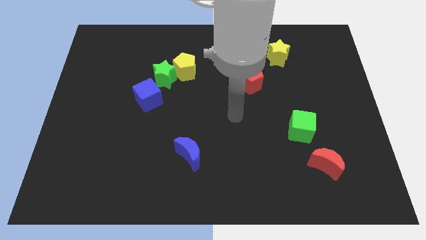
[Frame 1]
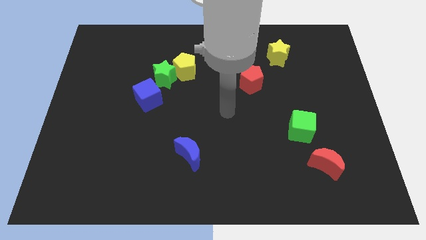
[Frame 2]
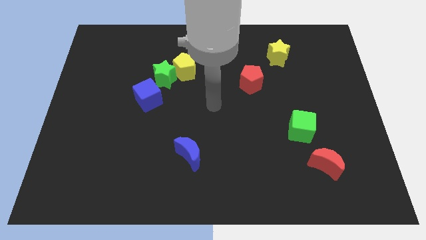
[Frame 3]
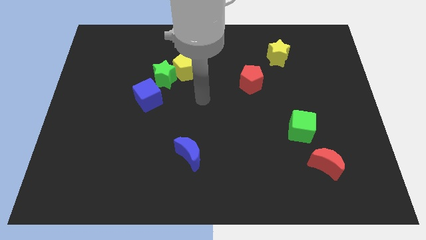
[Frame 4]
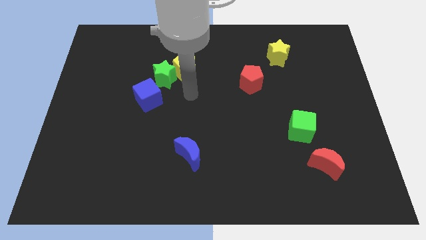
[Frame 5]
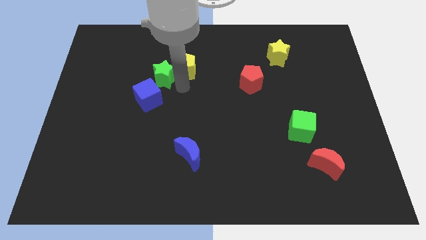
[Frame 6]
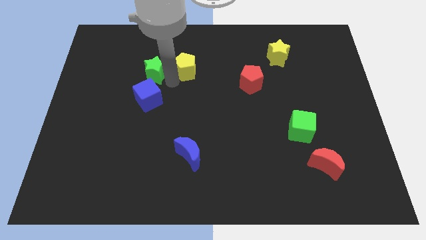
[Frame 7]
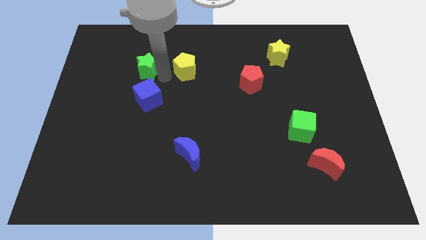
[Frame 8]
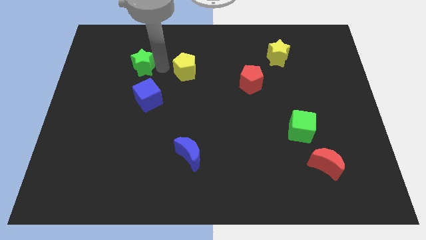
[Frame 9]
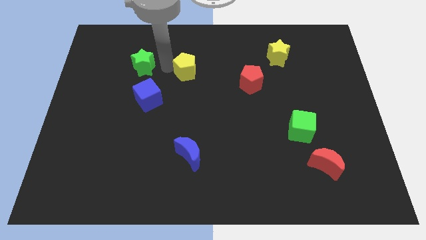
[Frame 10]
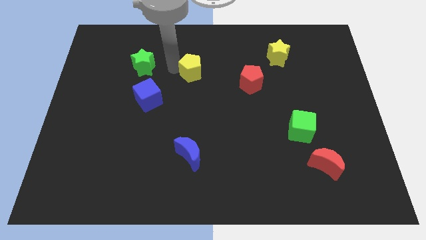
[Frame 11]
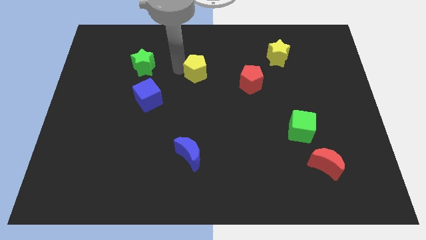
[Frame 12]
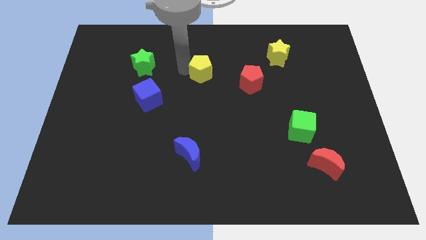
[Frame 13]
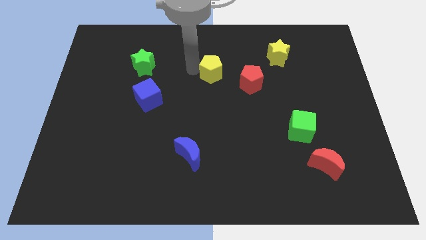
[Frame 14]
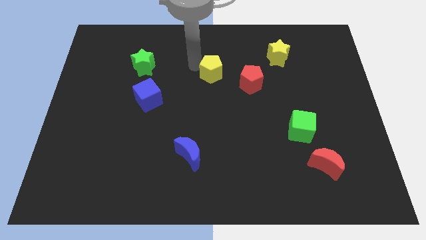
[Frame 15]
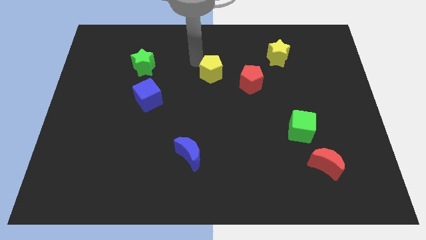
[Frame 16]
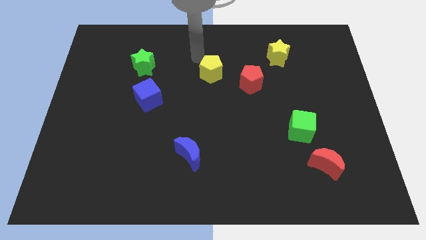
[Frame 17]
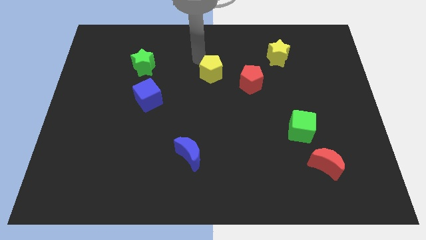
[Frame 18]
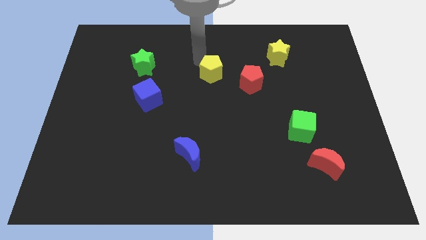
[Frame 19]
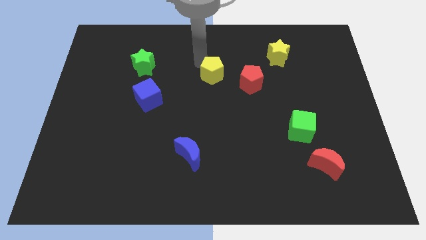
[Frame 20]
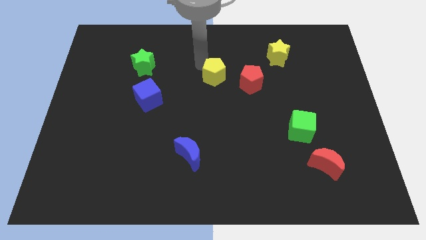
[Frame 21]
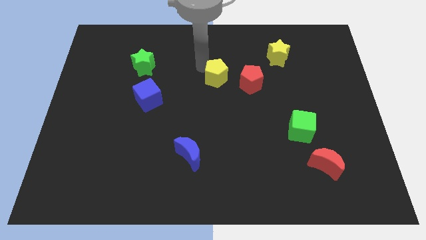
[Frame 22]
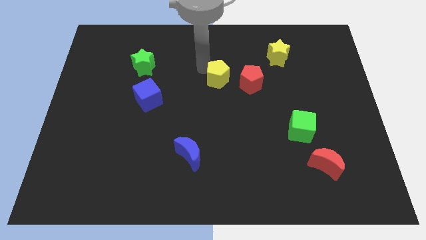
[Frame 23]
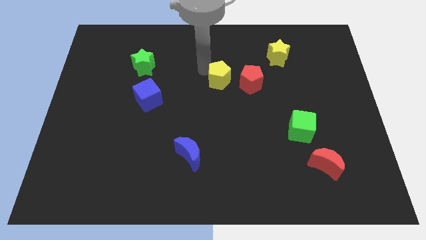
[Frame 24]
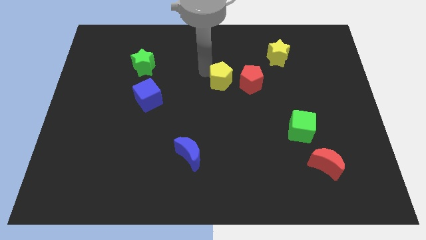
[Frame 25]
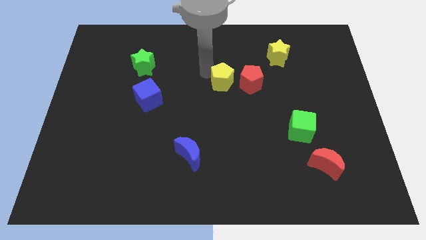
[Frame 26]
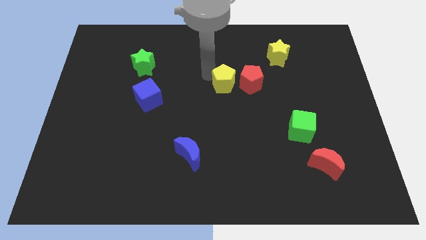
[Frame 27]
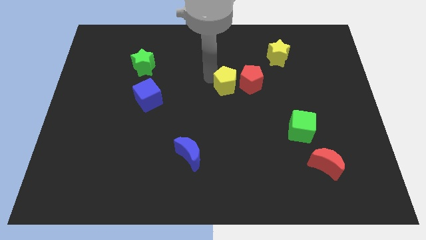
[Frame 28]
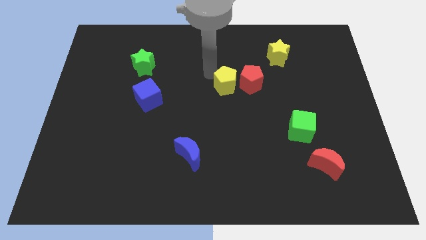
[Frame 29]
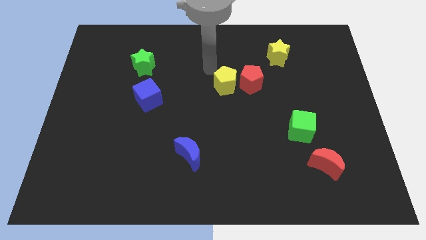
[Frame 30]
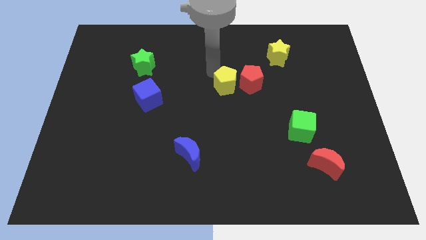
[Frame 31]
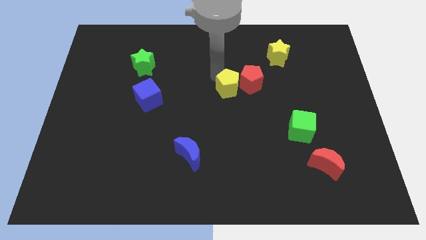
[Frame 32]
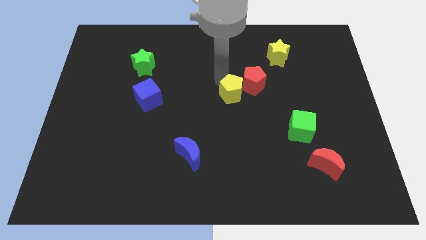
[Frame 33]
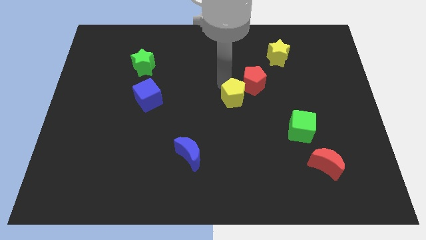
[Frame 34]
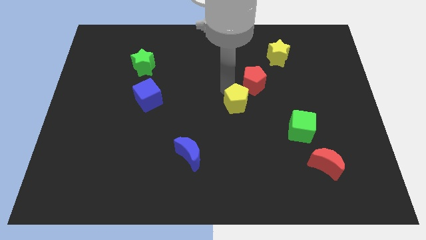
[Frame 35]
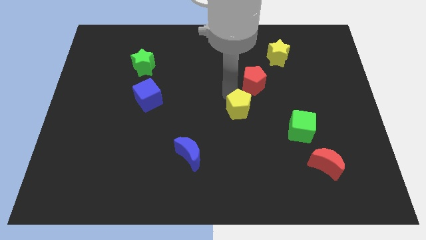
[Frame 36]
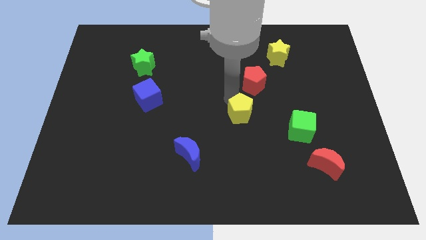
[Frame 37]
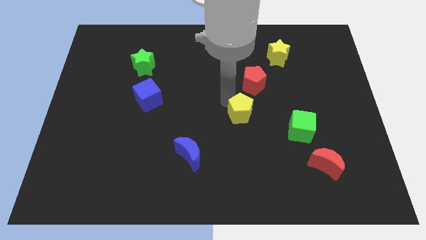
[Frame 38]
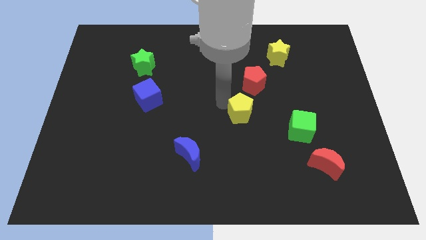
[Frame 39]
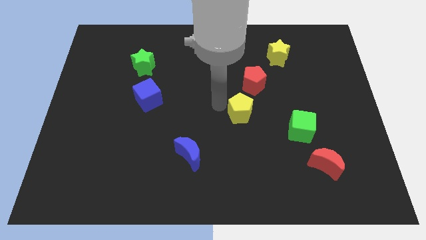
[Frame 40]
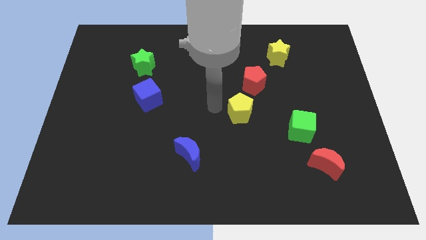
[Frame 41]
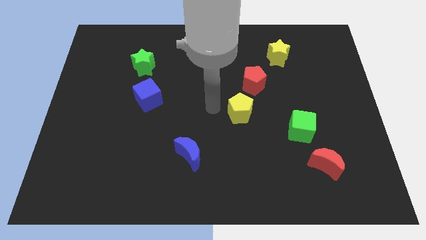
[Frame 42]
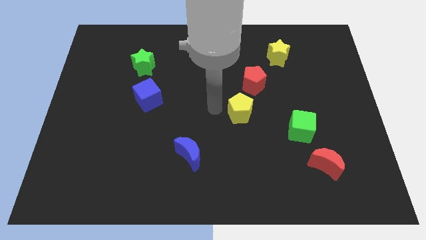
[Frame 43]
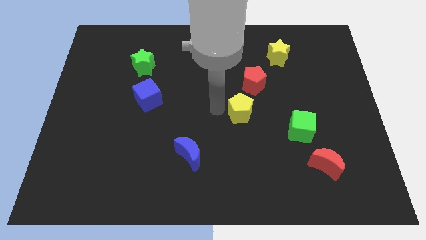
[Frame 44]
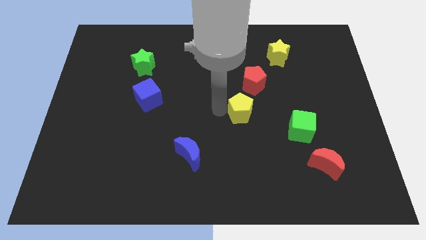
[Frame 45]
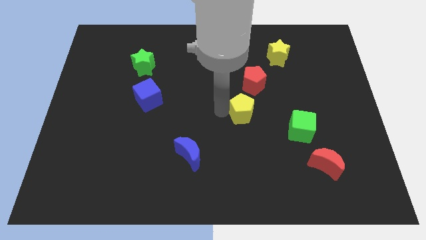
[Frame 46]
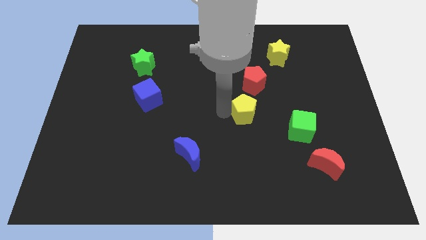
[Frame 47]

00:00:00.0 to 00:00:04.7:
slide the yellow pentagon downwards and right diagonally

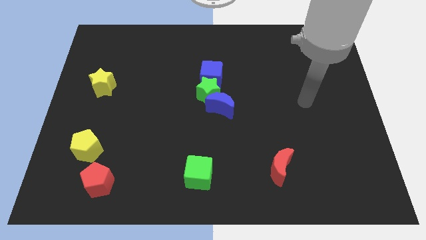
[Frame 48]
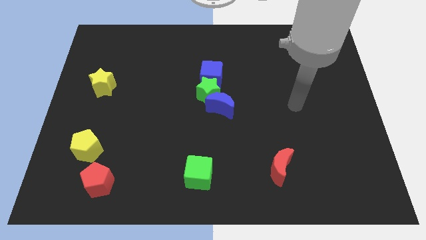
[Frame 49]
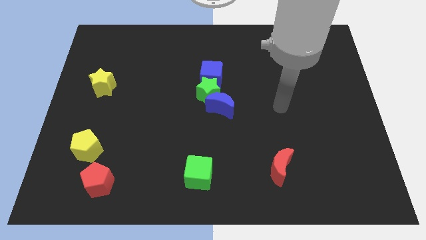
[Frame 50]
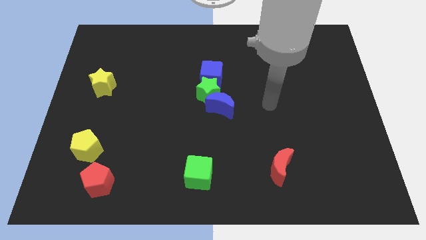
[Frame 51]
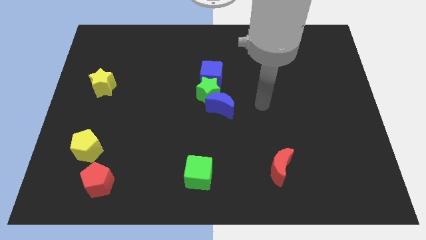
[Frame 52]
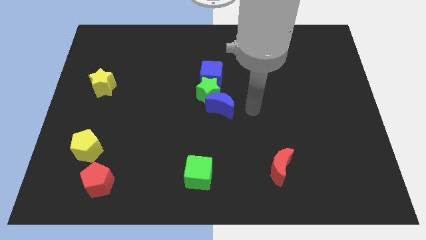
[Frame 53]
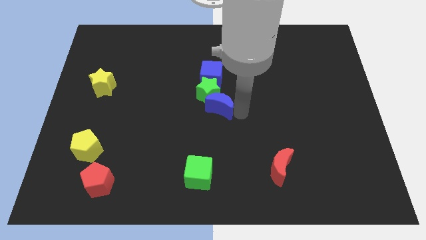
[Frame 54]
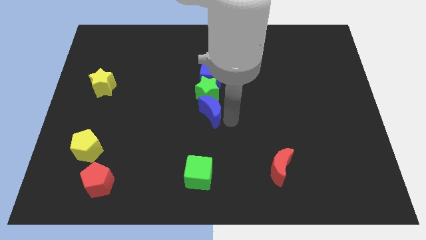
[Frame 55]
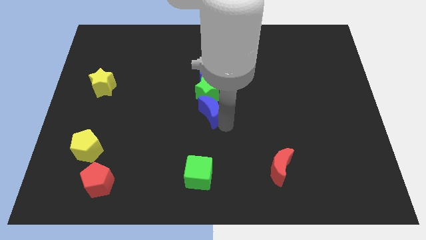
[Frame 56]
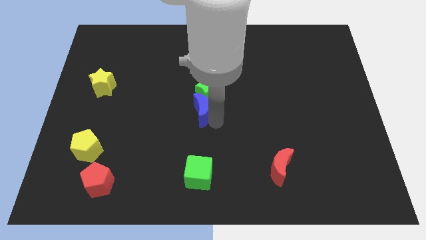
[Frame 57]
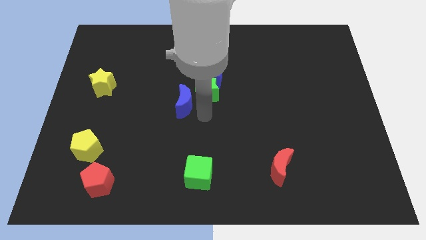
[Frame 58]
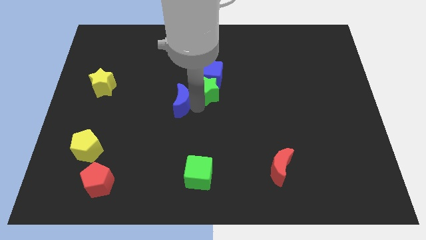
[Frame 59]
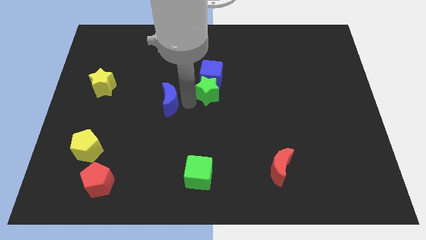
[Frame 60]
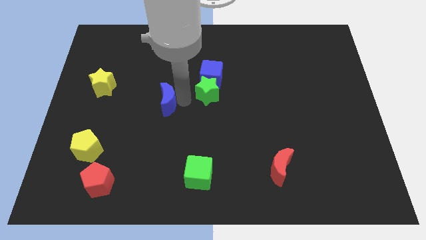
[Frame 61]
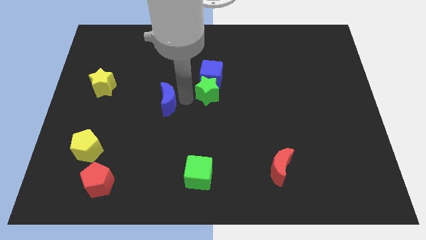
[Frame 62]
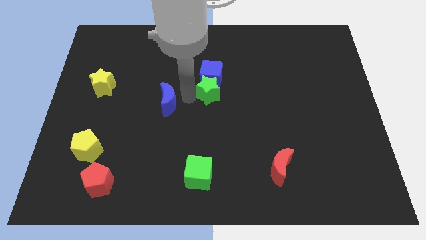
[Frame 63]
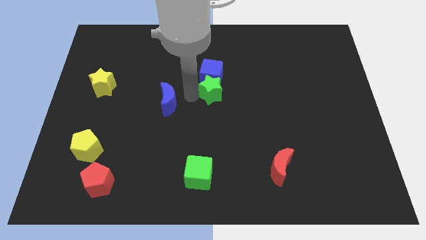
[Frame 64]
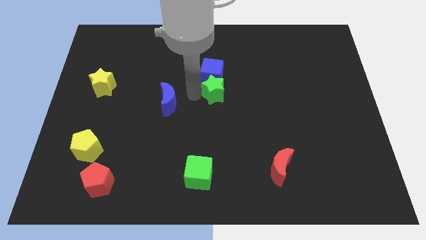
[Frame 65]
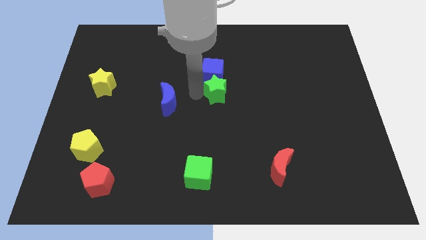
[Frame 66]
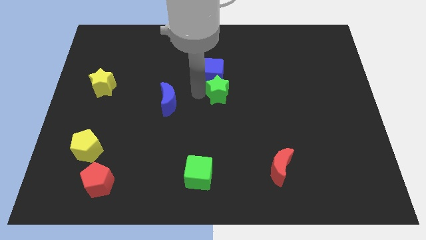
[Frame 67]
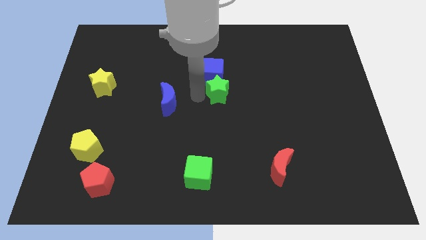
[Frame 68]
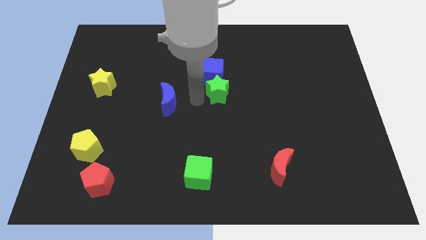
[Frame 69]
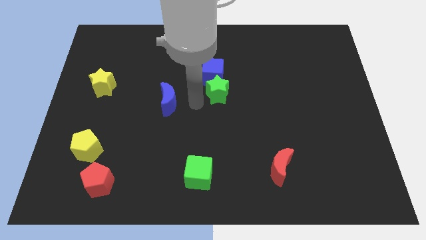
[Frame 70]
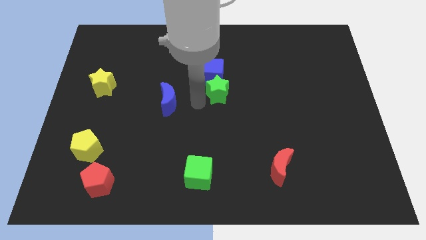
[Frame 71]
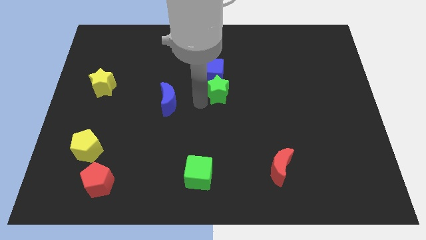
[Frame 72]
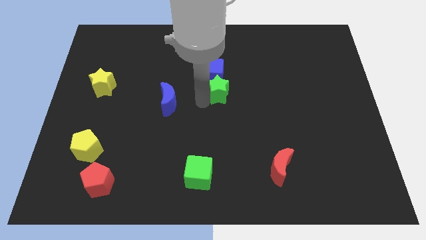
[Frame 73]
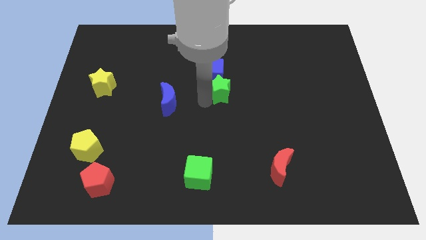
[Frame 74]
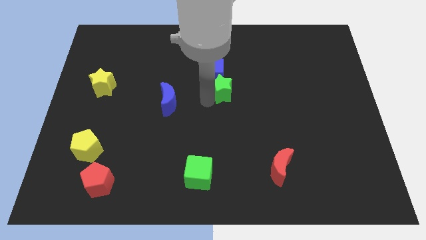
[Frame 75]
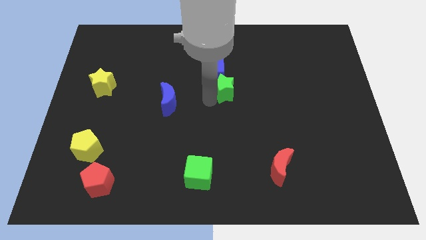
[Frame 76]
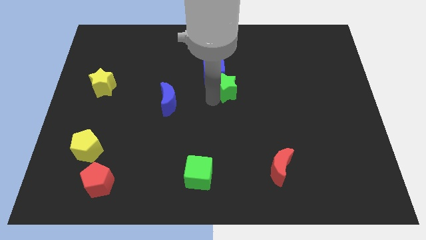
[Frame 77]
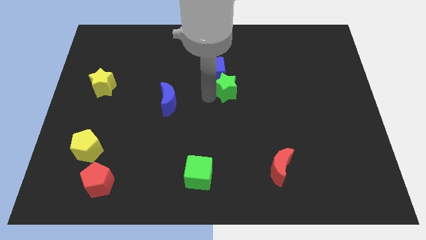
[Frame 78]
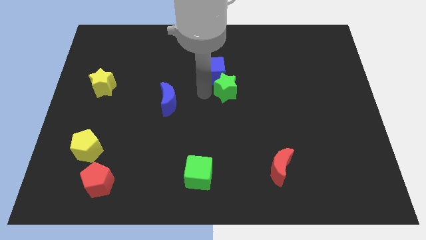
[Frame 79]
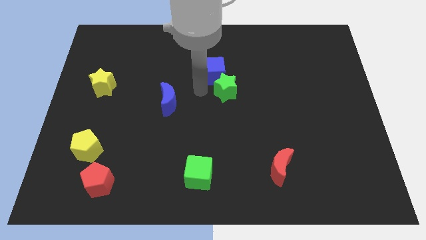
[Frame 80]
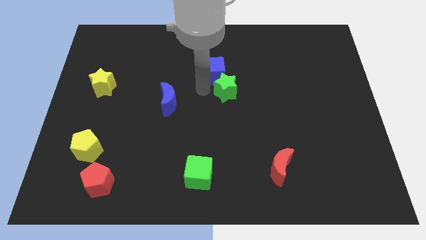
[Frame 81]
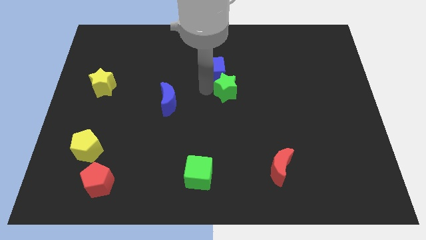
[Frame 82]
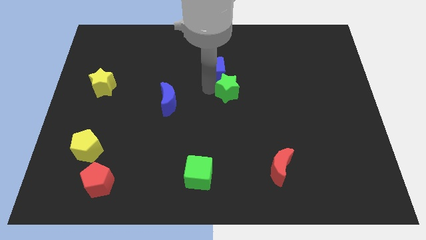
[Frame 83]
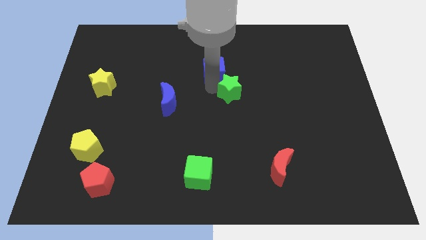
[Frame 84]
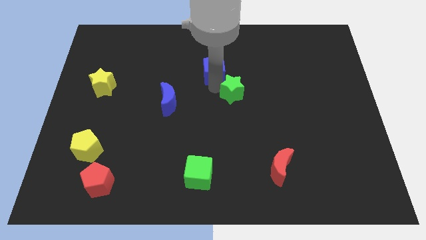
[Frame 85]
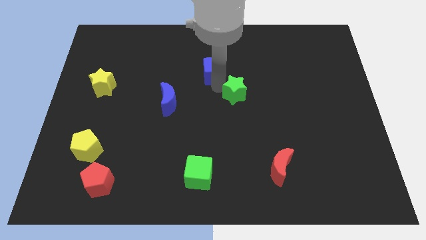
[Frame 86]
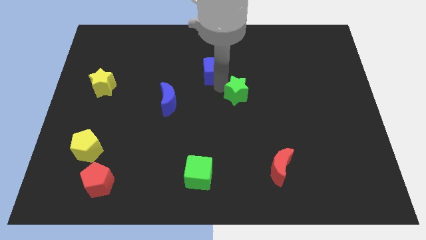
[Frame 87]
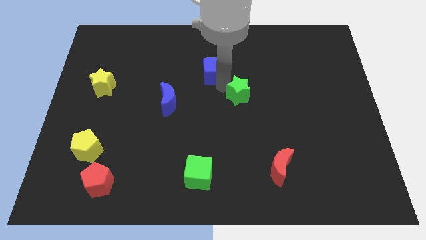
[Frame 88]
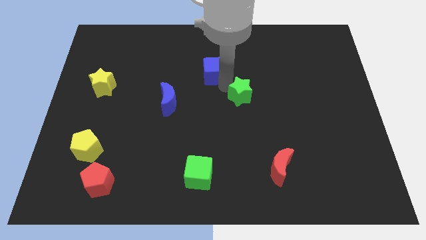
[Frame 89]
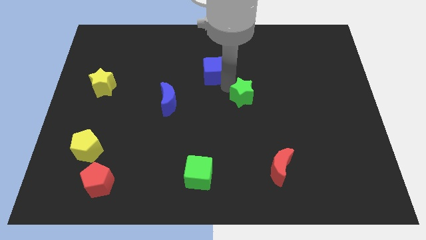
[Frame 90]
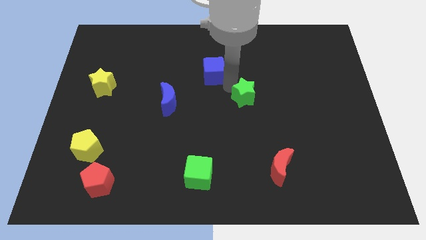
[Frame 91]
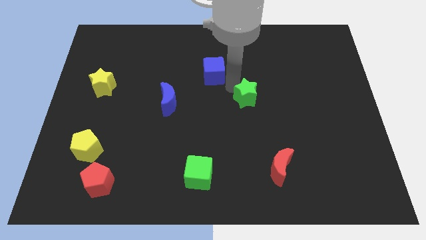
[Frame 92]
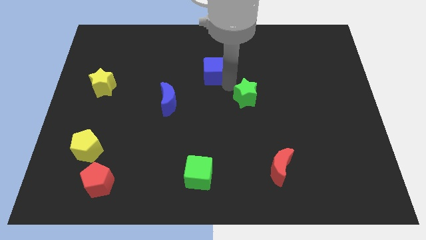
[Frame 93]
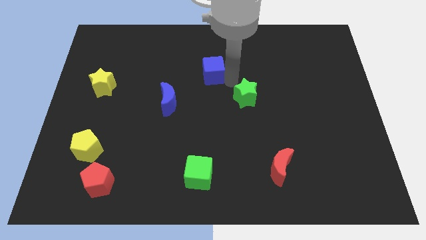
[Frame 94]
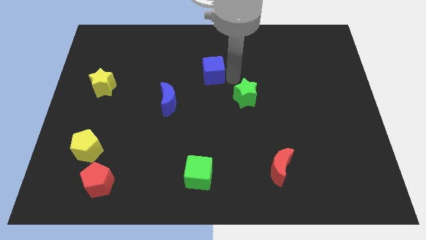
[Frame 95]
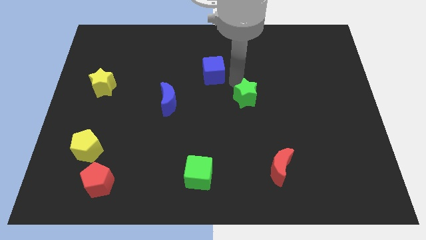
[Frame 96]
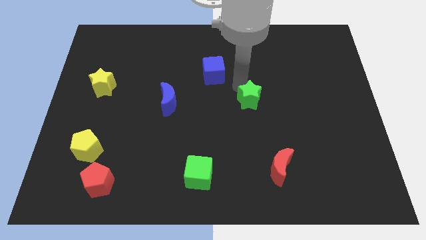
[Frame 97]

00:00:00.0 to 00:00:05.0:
slightly move the green star downwards and to the right diagonally
